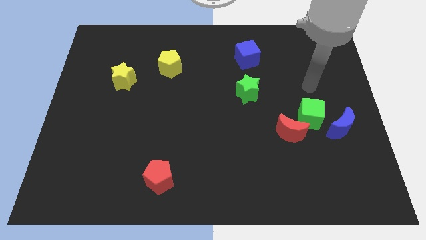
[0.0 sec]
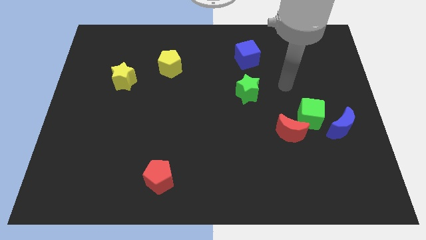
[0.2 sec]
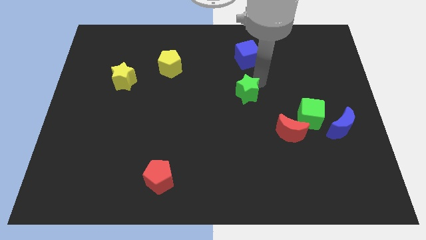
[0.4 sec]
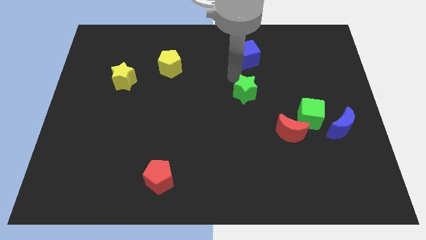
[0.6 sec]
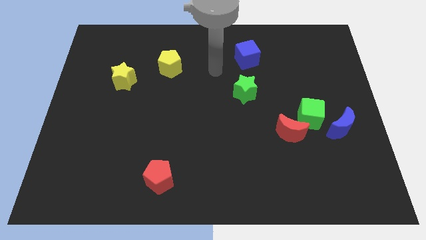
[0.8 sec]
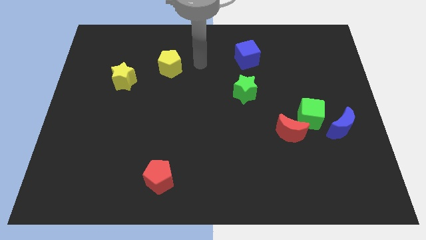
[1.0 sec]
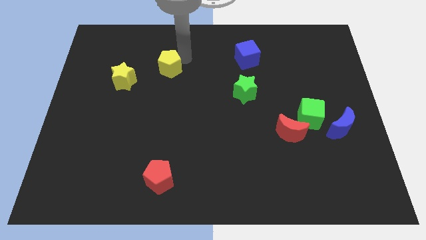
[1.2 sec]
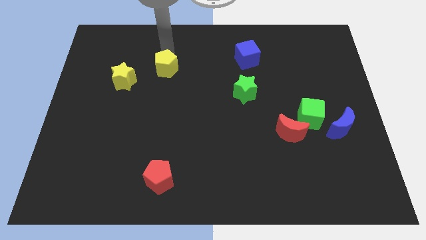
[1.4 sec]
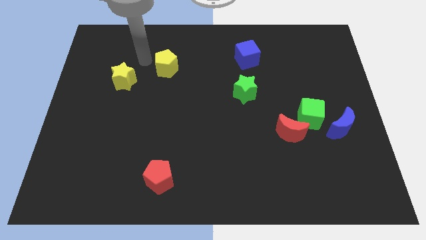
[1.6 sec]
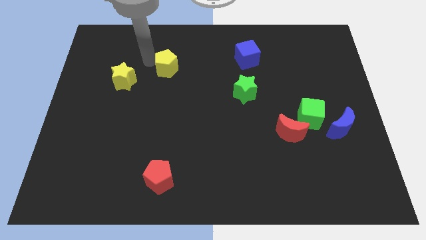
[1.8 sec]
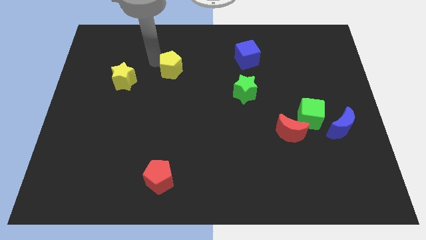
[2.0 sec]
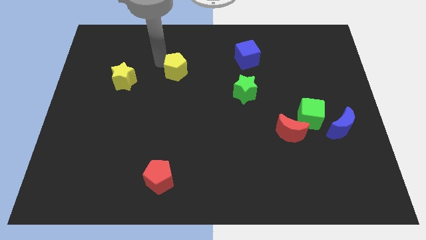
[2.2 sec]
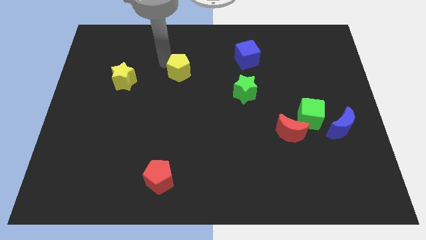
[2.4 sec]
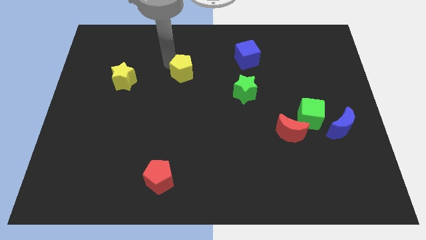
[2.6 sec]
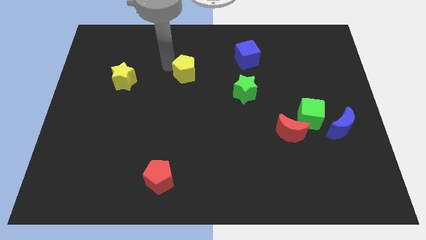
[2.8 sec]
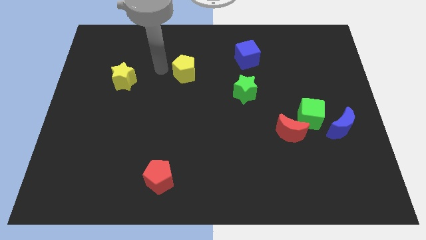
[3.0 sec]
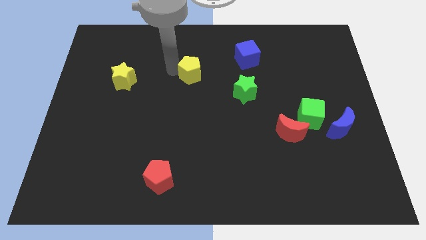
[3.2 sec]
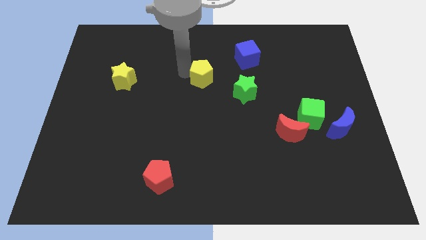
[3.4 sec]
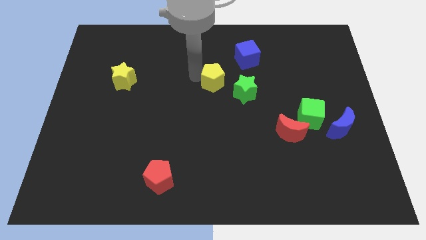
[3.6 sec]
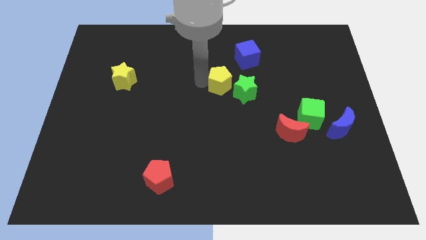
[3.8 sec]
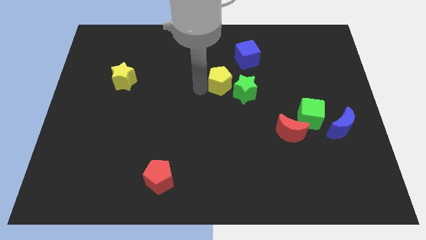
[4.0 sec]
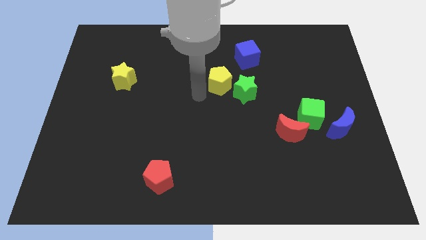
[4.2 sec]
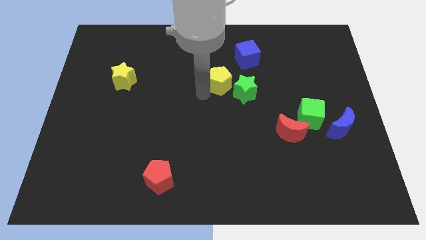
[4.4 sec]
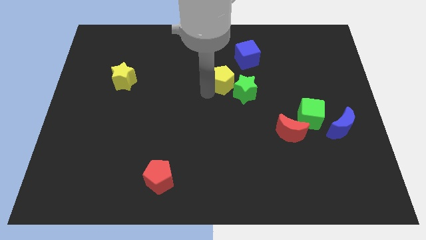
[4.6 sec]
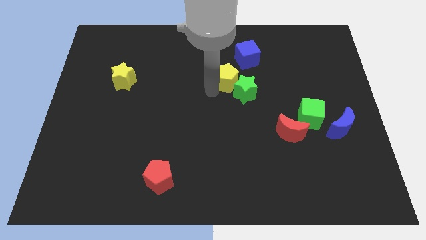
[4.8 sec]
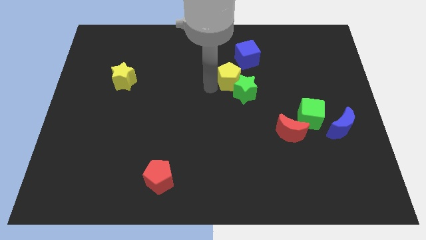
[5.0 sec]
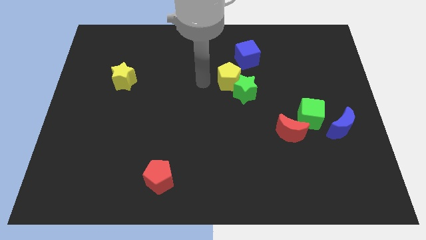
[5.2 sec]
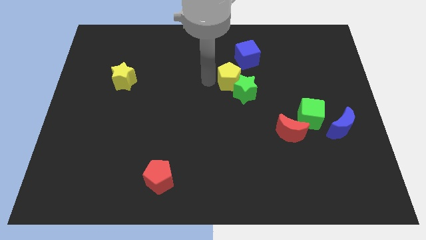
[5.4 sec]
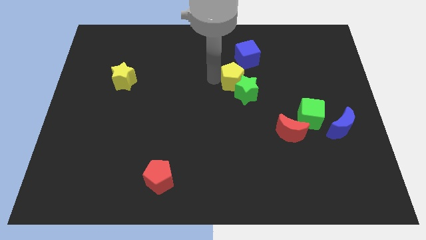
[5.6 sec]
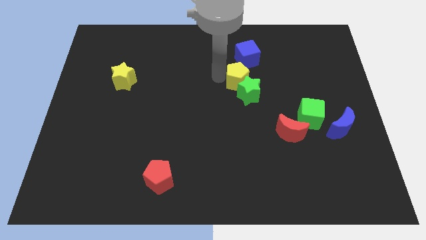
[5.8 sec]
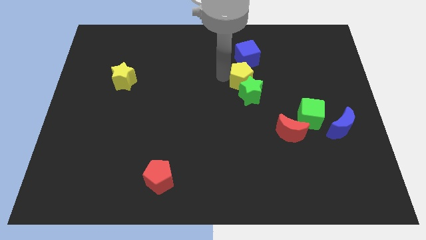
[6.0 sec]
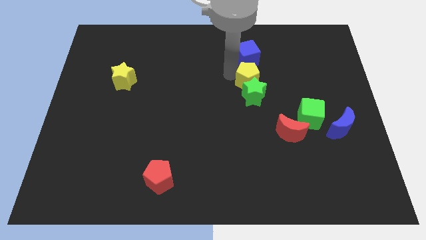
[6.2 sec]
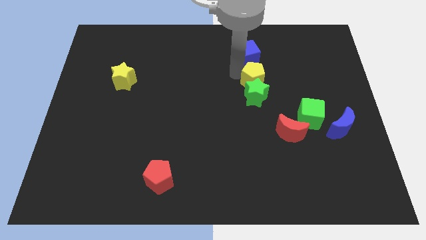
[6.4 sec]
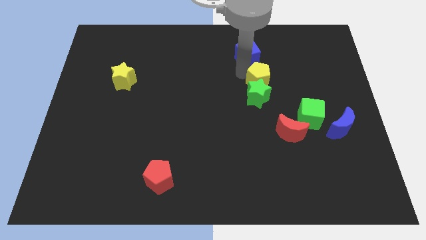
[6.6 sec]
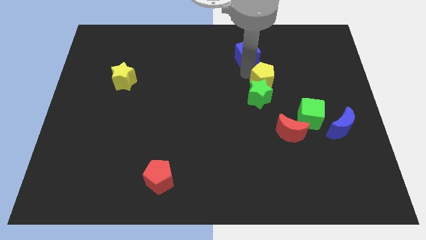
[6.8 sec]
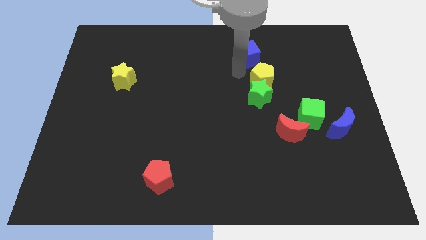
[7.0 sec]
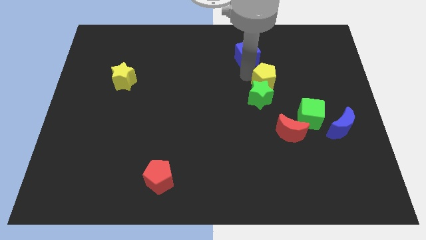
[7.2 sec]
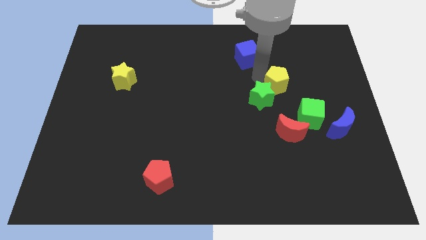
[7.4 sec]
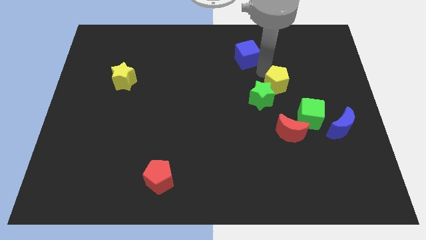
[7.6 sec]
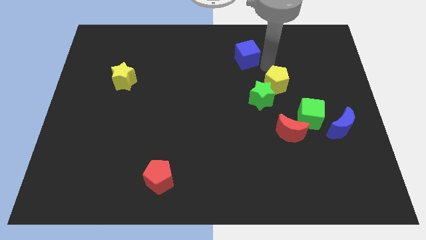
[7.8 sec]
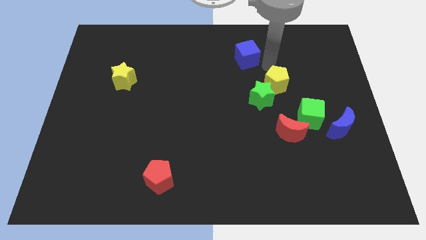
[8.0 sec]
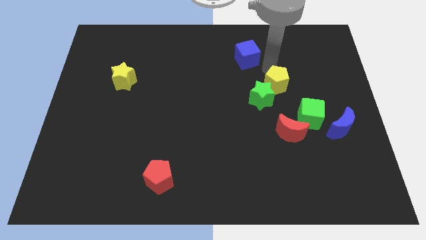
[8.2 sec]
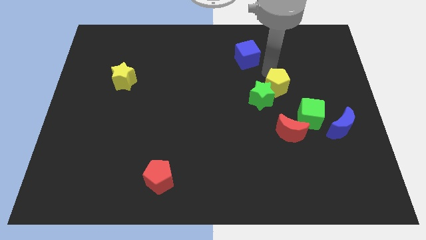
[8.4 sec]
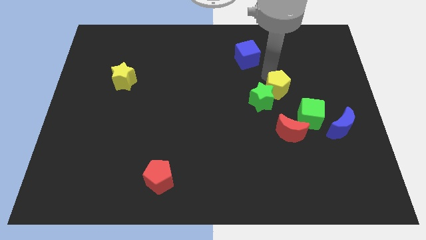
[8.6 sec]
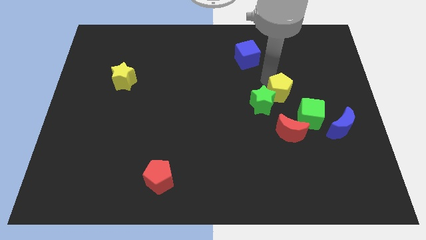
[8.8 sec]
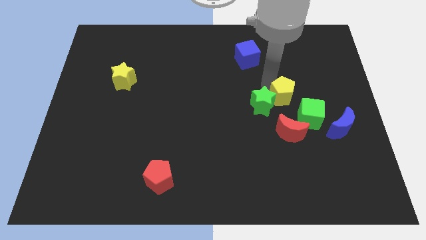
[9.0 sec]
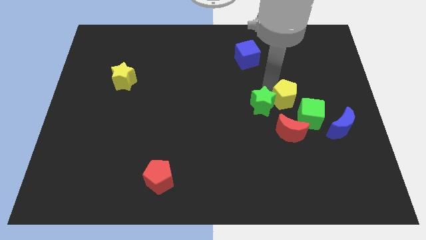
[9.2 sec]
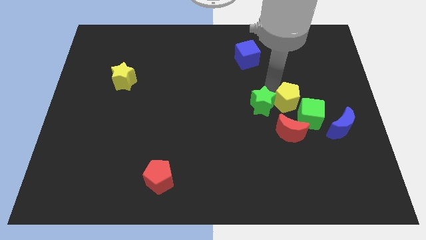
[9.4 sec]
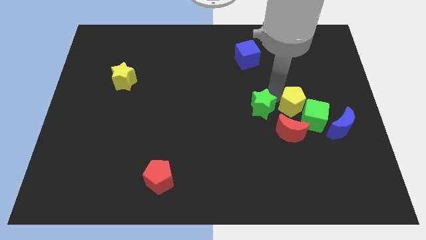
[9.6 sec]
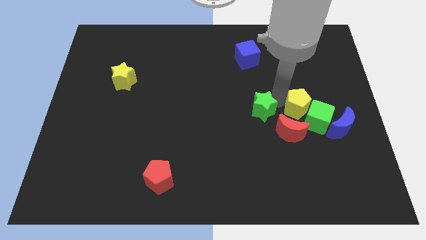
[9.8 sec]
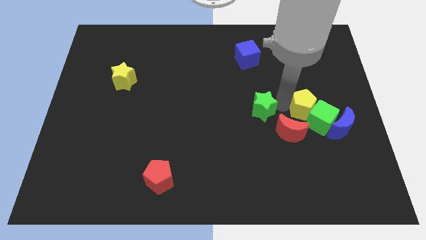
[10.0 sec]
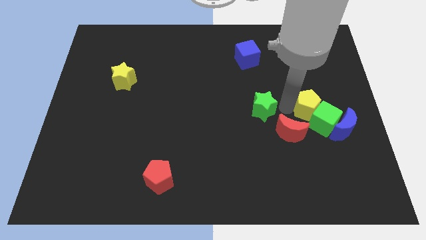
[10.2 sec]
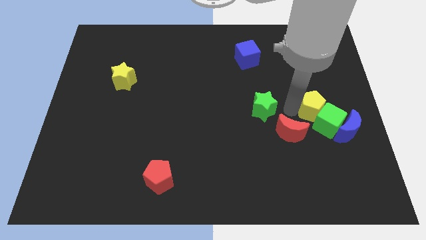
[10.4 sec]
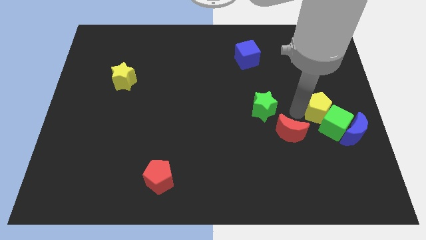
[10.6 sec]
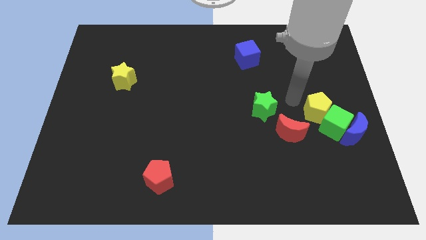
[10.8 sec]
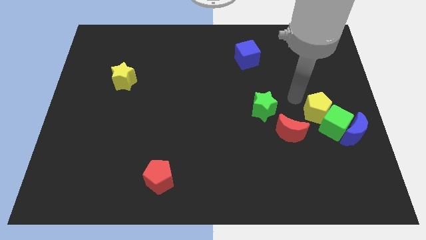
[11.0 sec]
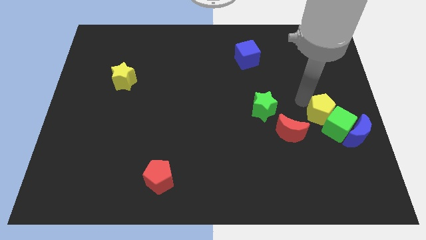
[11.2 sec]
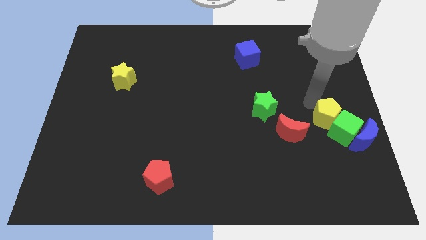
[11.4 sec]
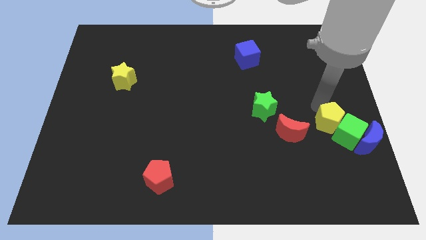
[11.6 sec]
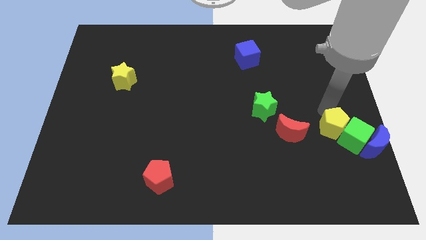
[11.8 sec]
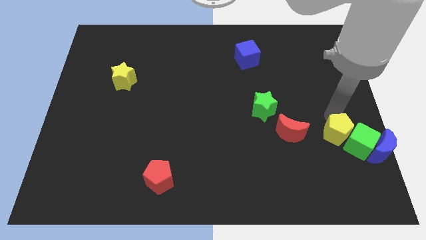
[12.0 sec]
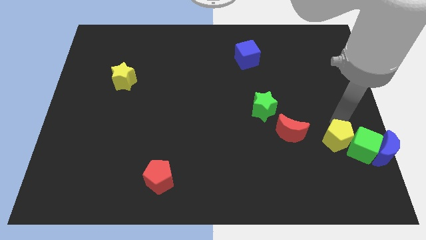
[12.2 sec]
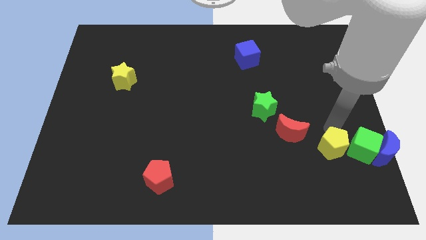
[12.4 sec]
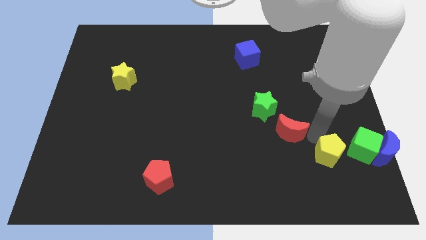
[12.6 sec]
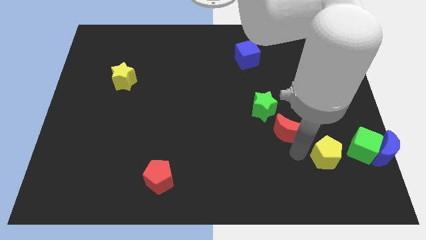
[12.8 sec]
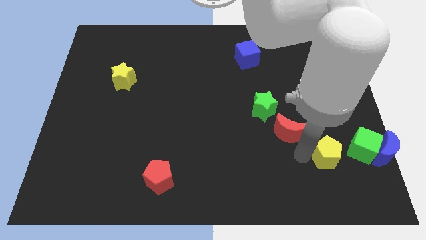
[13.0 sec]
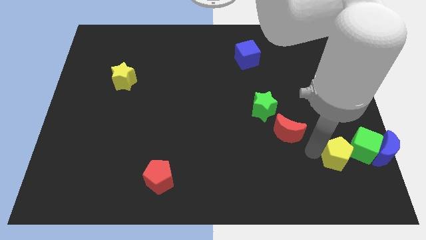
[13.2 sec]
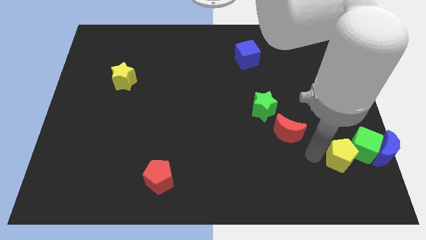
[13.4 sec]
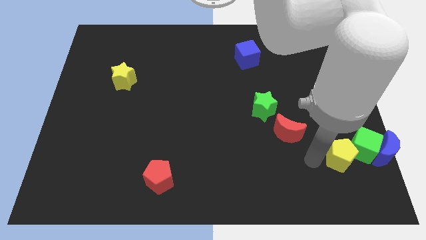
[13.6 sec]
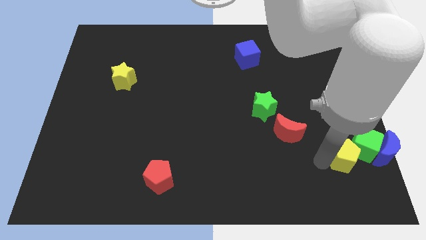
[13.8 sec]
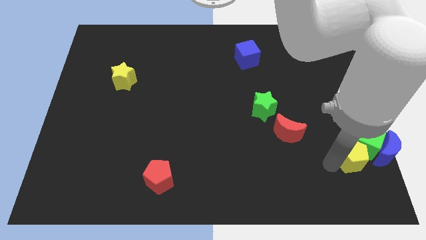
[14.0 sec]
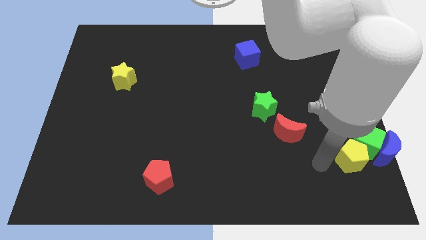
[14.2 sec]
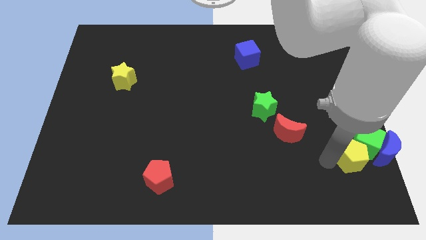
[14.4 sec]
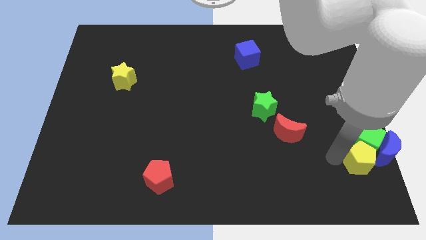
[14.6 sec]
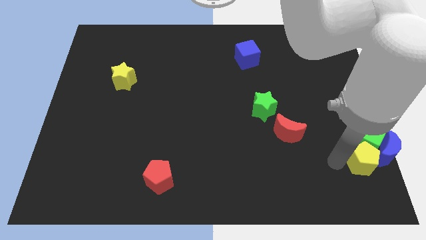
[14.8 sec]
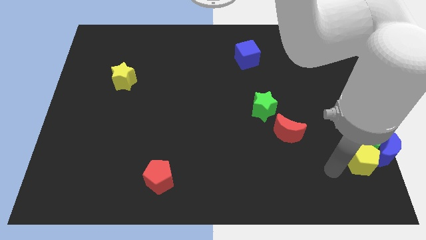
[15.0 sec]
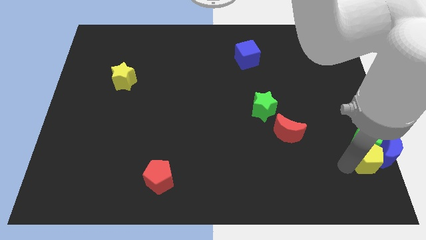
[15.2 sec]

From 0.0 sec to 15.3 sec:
push the yellow pentagon towards the blue moon
